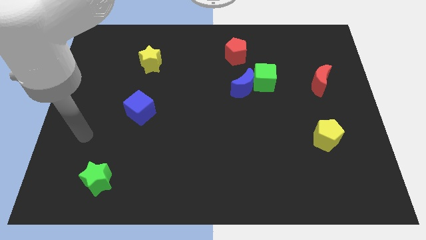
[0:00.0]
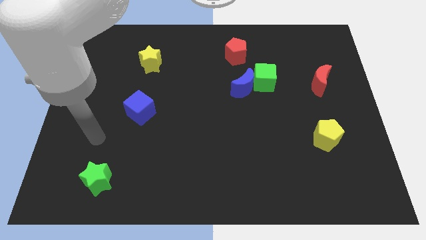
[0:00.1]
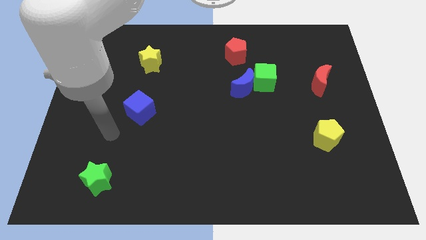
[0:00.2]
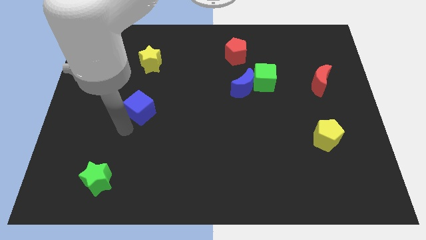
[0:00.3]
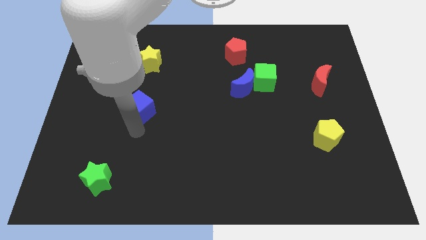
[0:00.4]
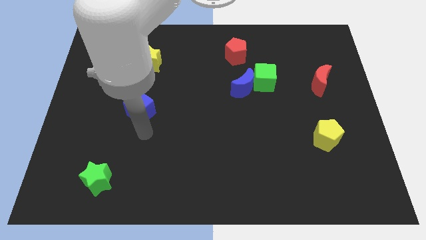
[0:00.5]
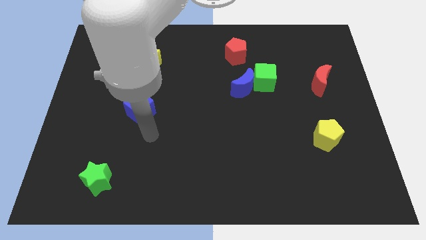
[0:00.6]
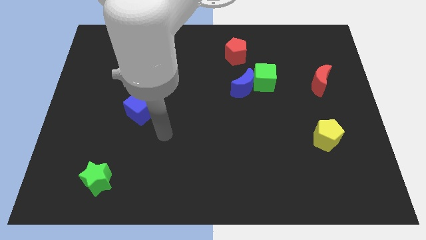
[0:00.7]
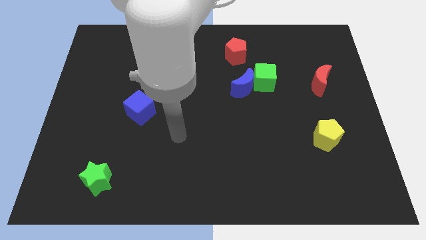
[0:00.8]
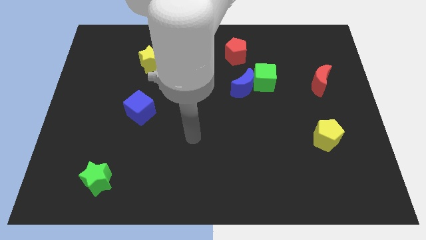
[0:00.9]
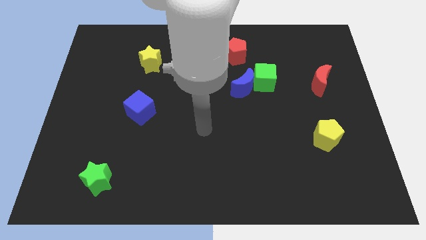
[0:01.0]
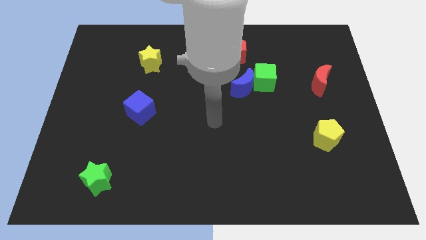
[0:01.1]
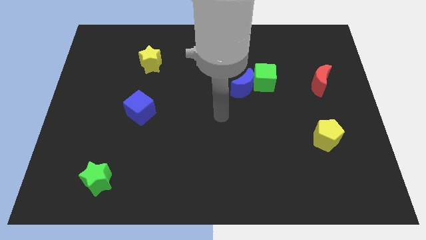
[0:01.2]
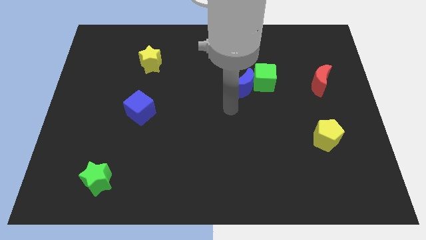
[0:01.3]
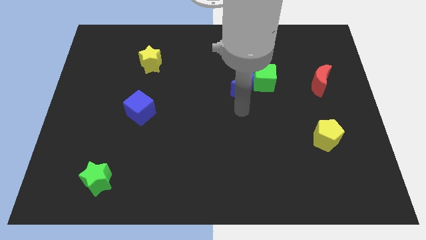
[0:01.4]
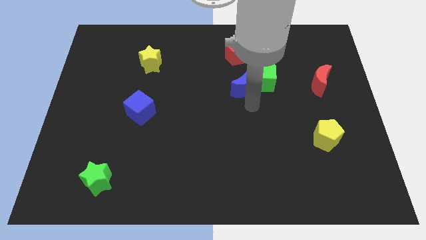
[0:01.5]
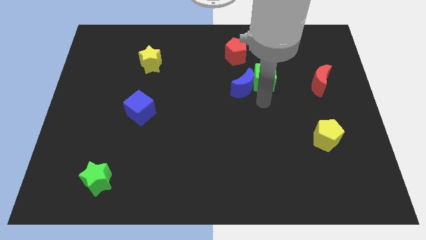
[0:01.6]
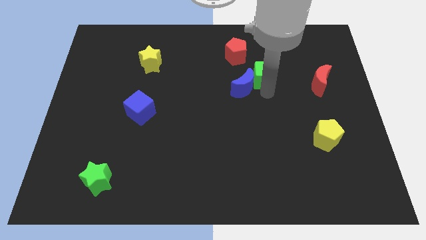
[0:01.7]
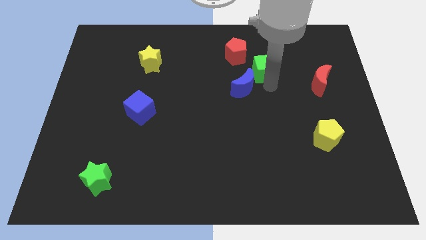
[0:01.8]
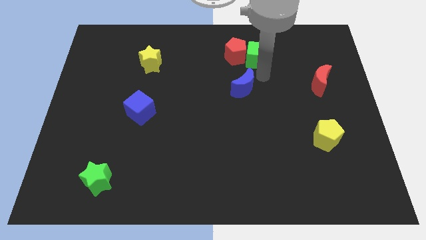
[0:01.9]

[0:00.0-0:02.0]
move the blue moon away from the green cube

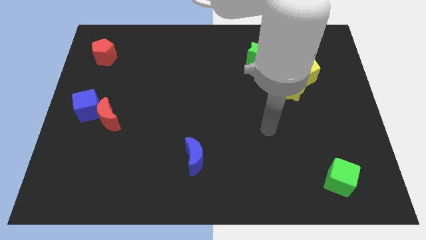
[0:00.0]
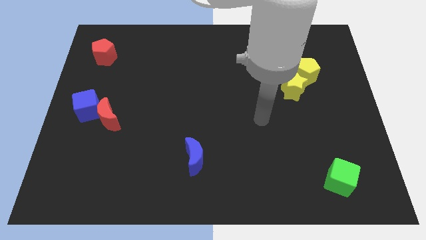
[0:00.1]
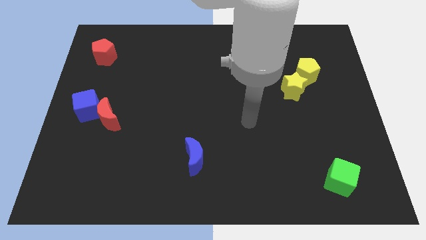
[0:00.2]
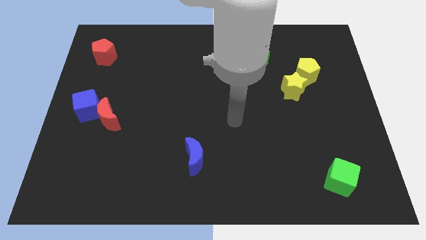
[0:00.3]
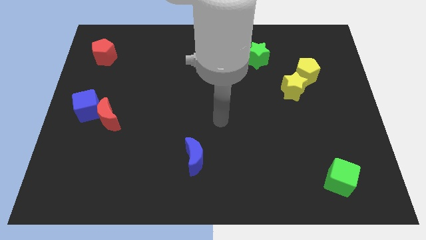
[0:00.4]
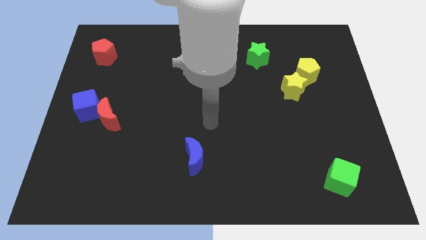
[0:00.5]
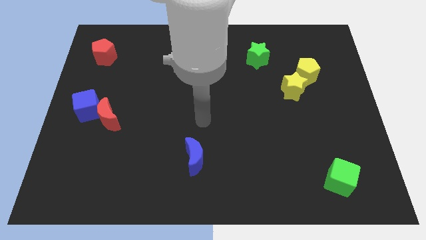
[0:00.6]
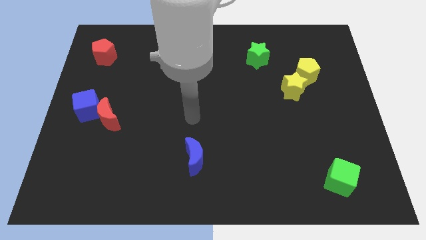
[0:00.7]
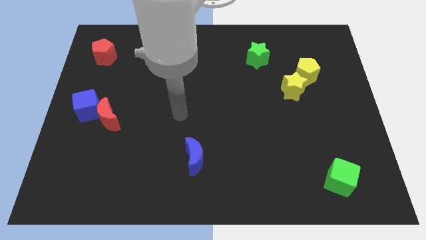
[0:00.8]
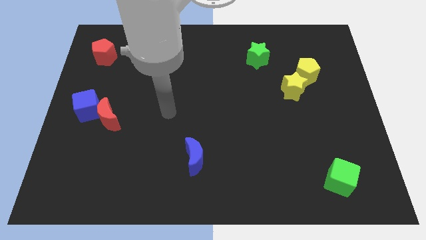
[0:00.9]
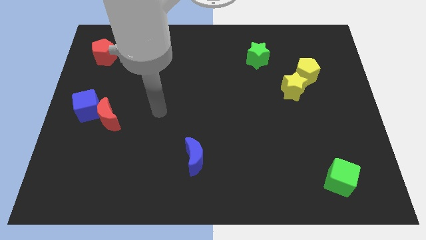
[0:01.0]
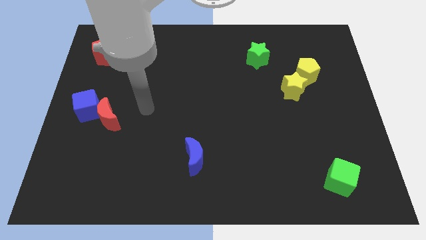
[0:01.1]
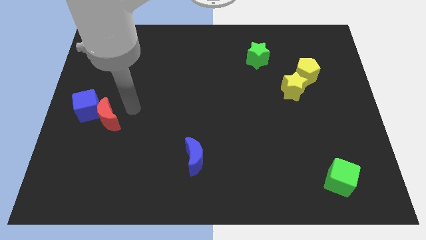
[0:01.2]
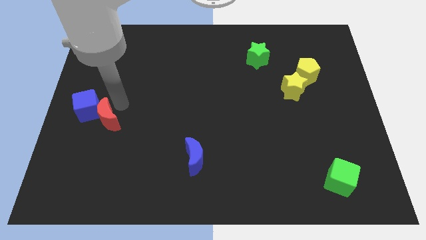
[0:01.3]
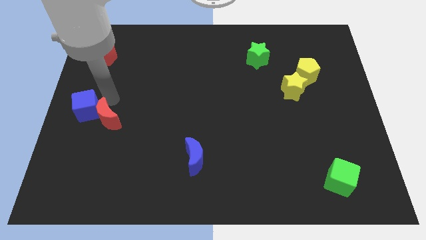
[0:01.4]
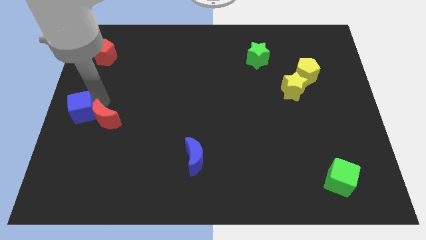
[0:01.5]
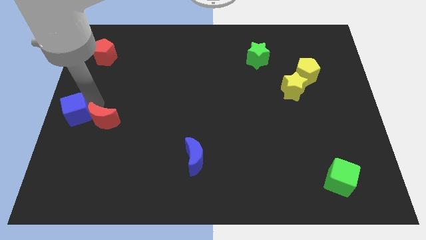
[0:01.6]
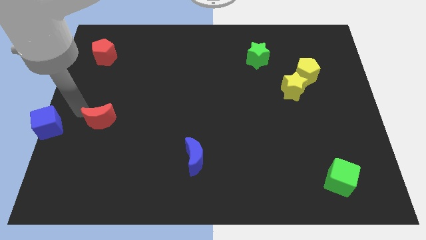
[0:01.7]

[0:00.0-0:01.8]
move the red moon away from the blue cube

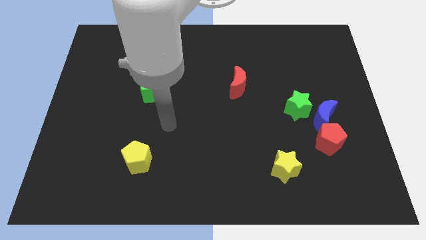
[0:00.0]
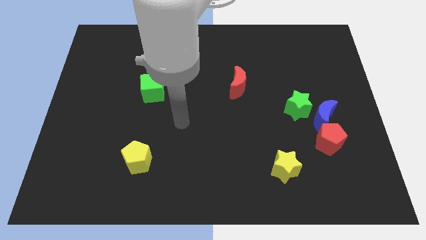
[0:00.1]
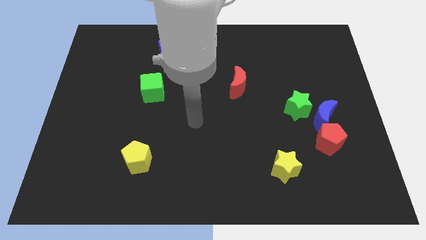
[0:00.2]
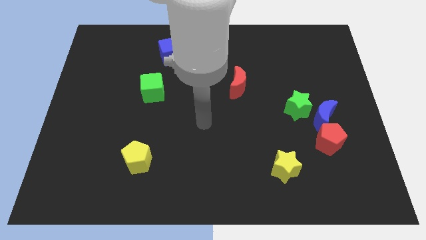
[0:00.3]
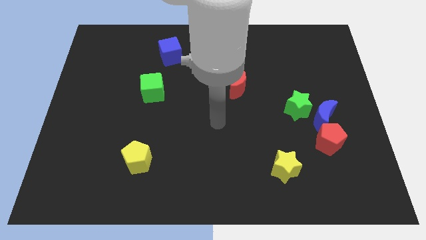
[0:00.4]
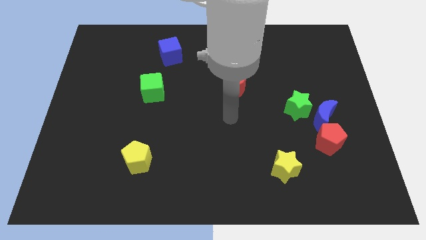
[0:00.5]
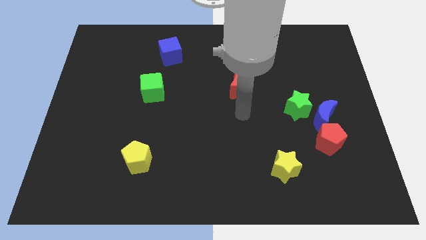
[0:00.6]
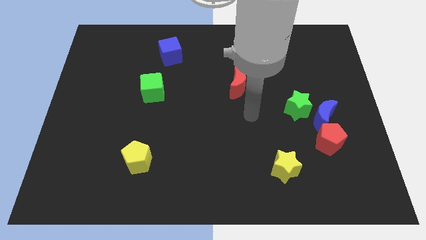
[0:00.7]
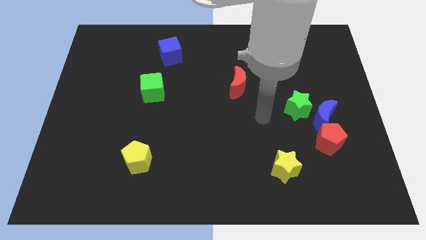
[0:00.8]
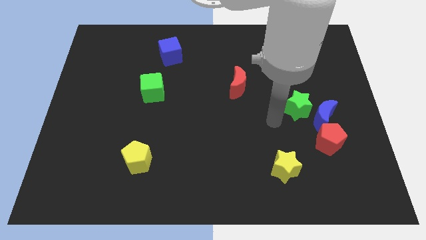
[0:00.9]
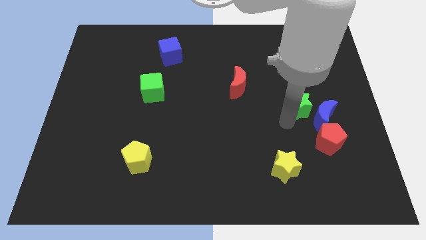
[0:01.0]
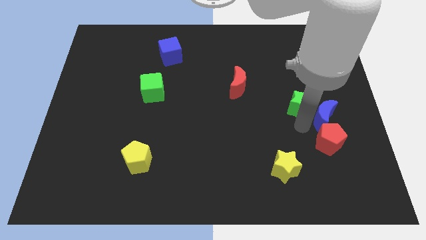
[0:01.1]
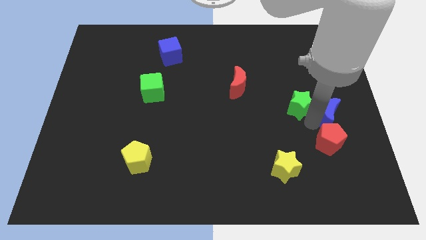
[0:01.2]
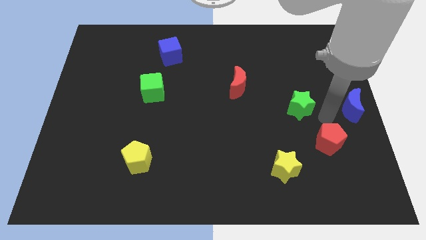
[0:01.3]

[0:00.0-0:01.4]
separate the green star from the blue moon

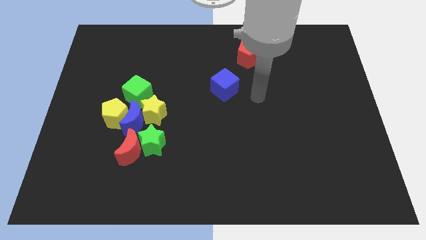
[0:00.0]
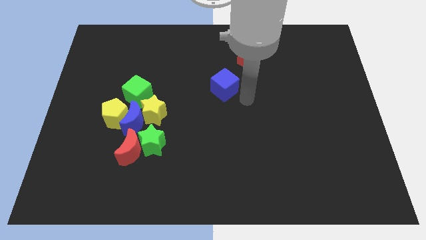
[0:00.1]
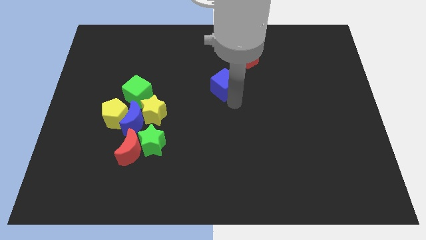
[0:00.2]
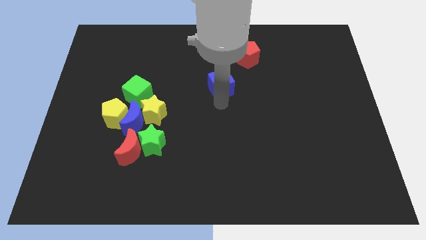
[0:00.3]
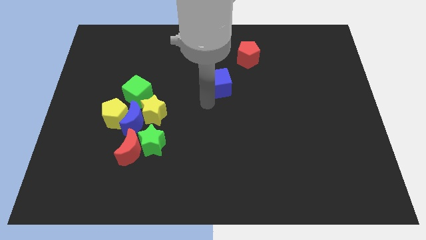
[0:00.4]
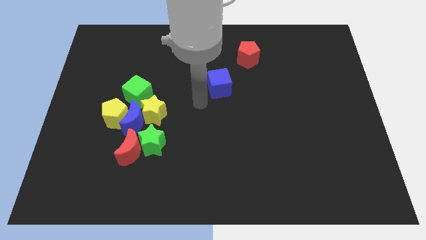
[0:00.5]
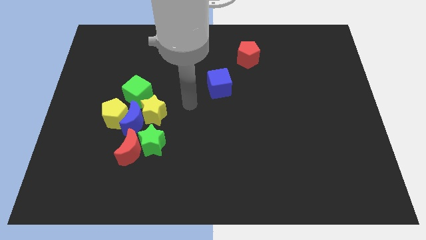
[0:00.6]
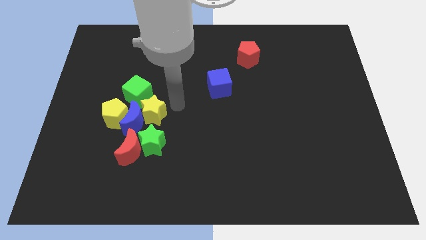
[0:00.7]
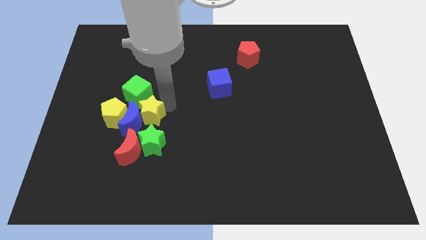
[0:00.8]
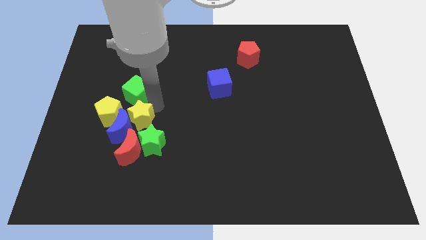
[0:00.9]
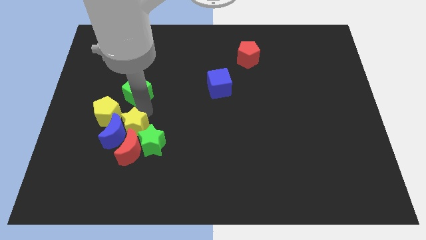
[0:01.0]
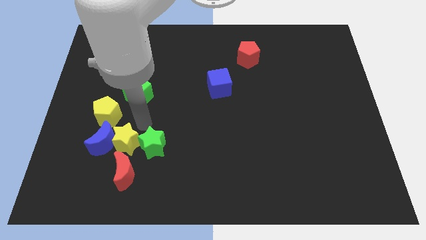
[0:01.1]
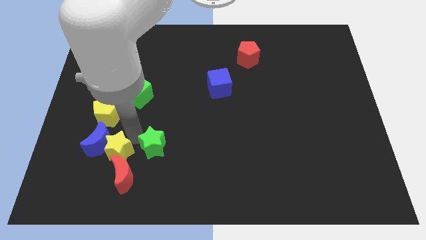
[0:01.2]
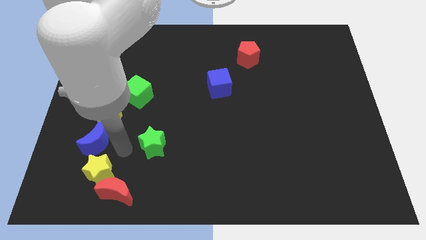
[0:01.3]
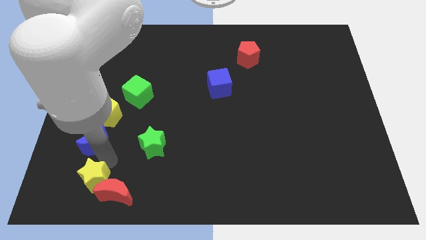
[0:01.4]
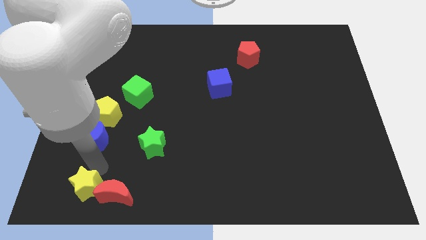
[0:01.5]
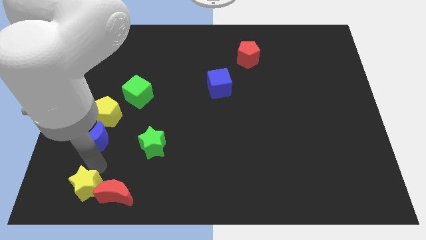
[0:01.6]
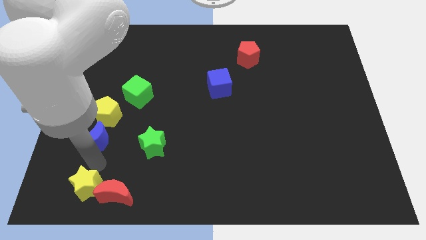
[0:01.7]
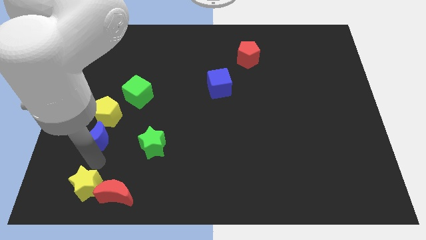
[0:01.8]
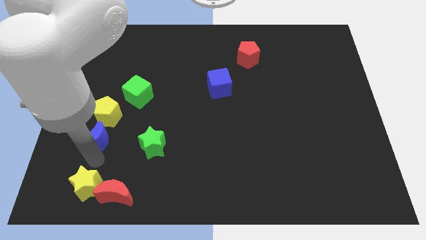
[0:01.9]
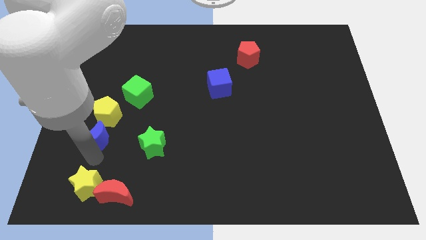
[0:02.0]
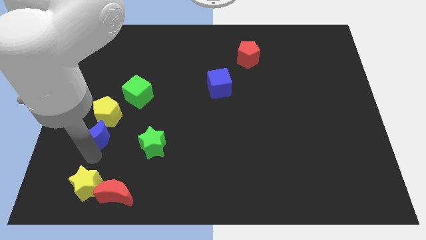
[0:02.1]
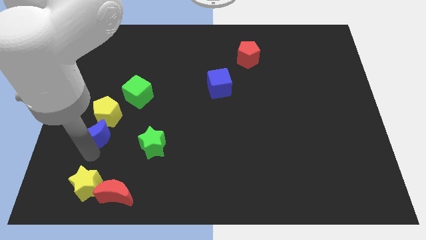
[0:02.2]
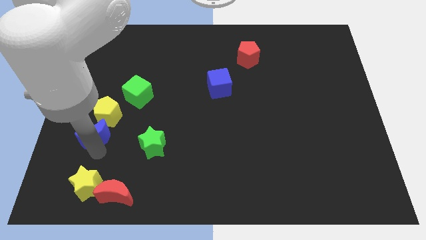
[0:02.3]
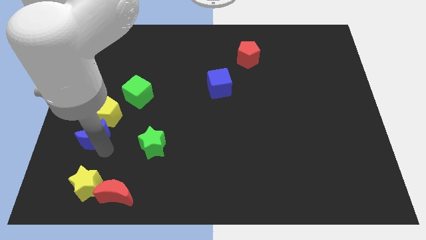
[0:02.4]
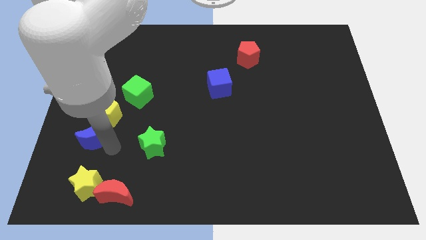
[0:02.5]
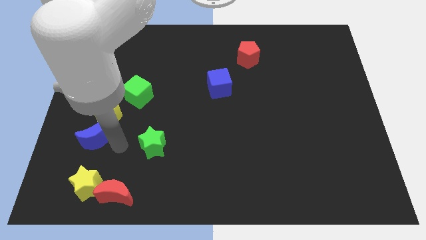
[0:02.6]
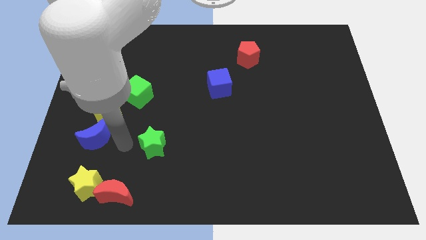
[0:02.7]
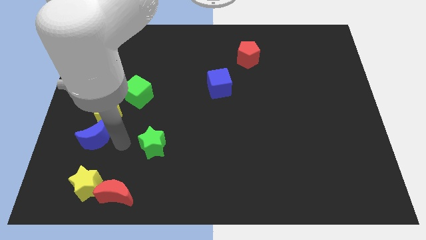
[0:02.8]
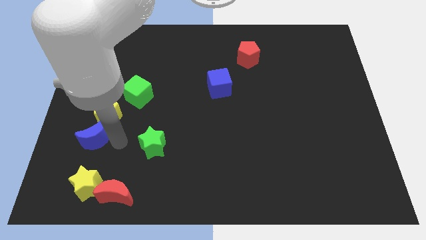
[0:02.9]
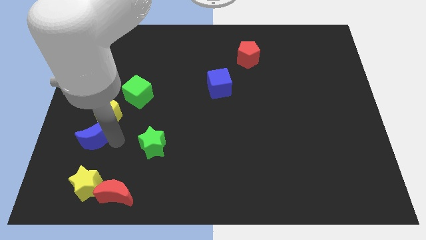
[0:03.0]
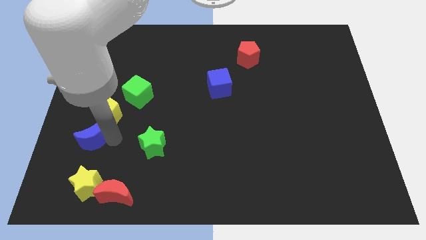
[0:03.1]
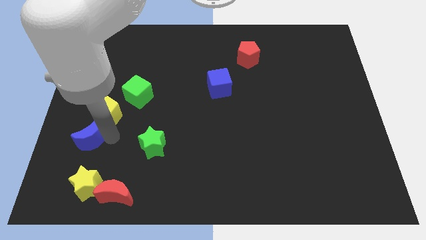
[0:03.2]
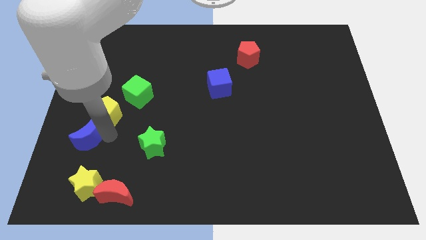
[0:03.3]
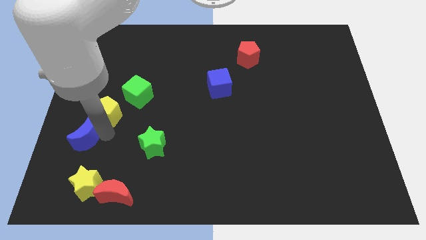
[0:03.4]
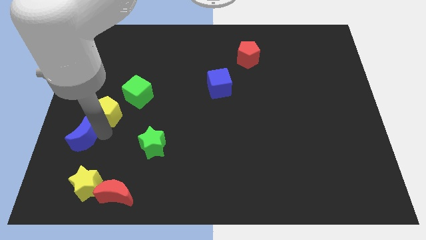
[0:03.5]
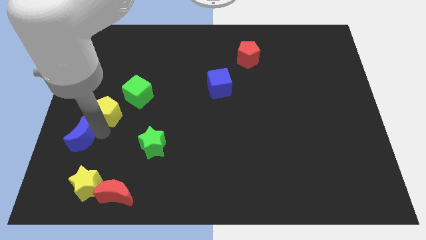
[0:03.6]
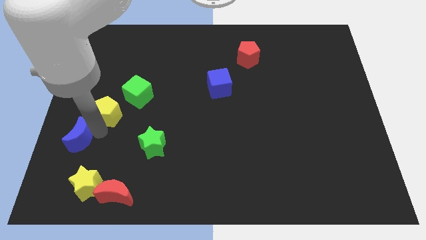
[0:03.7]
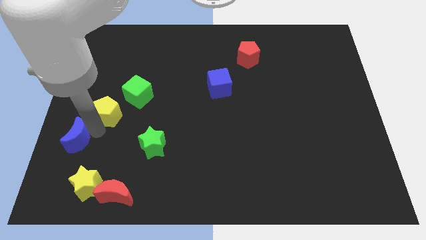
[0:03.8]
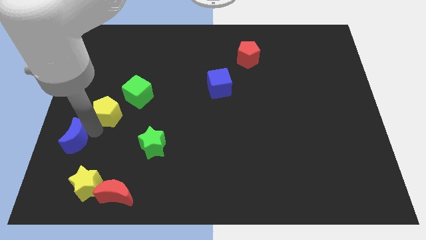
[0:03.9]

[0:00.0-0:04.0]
separate the blue moon from the clump

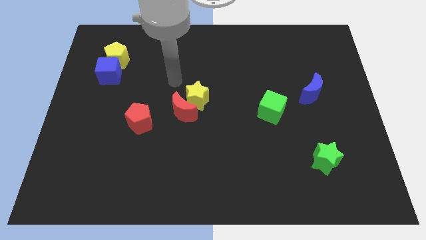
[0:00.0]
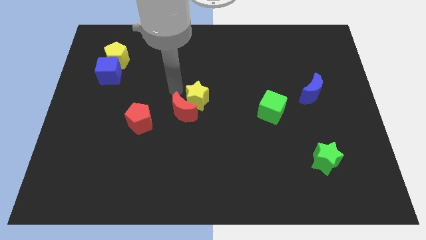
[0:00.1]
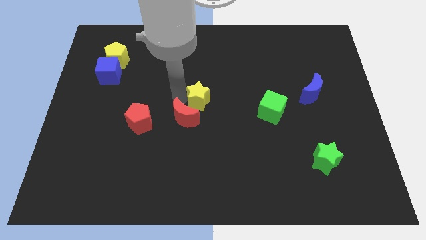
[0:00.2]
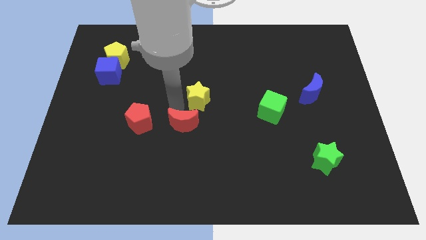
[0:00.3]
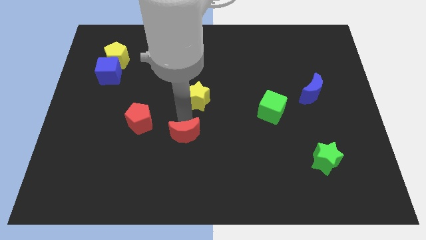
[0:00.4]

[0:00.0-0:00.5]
pull the yellow star apart from the red moon
